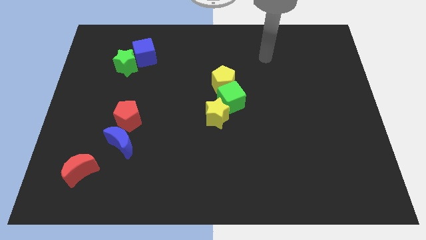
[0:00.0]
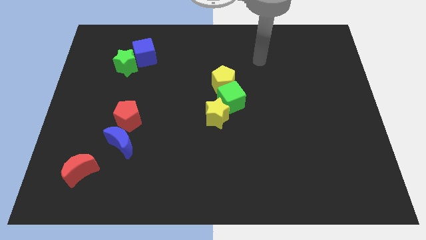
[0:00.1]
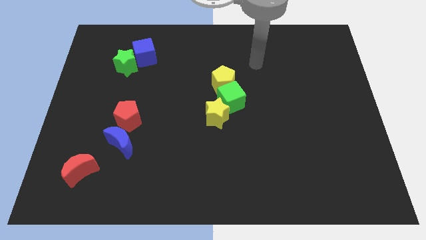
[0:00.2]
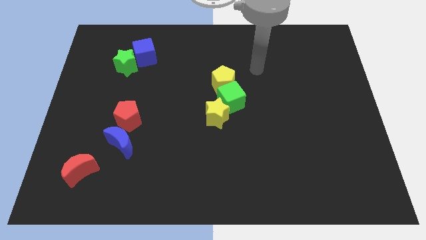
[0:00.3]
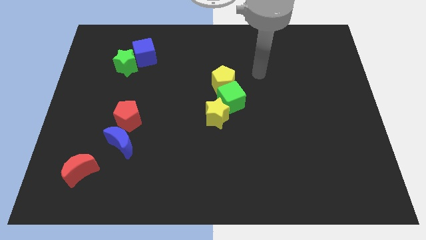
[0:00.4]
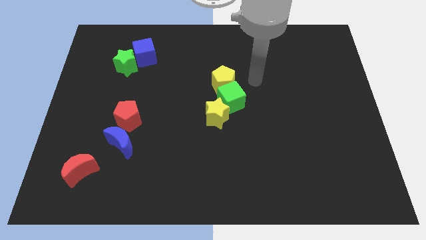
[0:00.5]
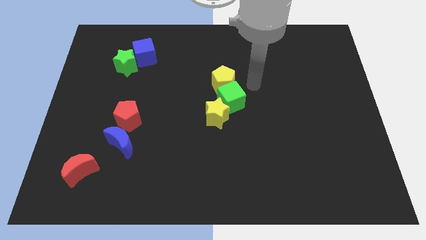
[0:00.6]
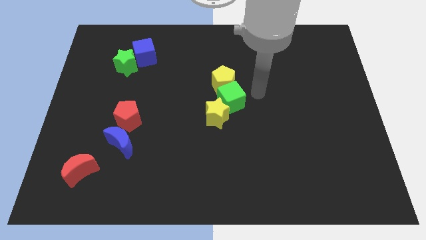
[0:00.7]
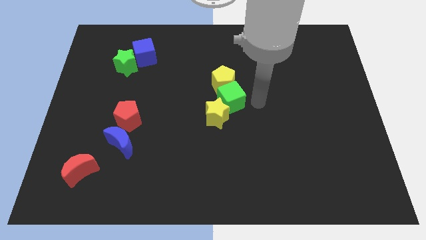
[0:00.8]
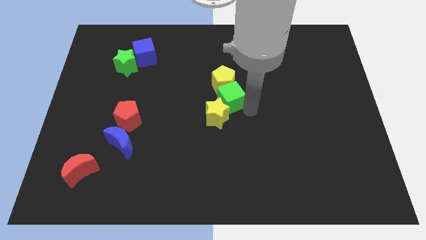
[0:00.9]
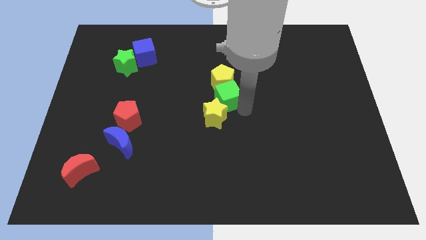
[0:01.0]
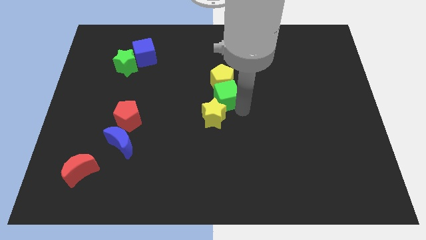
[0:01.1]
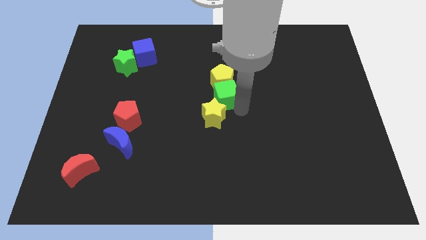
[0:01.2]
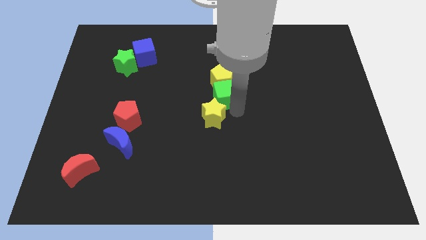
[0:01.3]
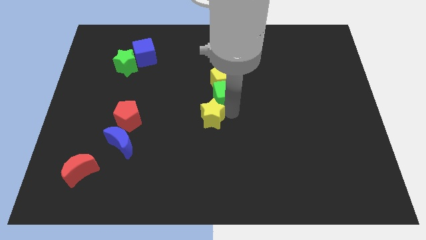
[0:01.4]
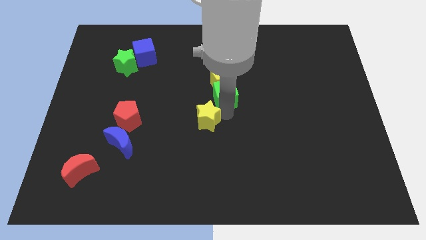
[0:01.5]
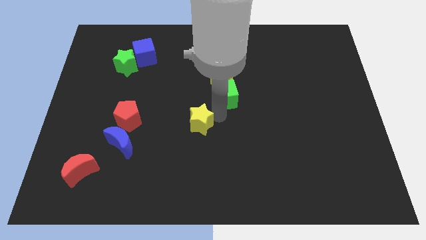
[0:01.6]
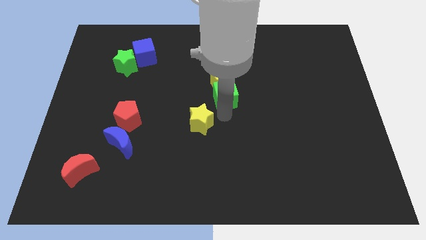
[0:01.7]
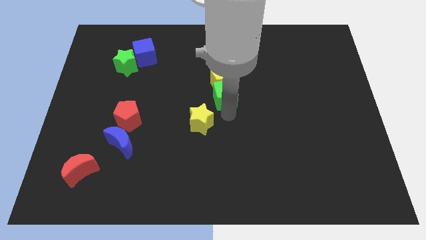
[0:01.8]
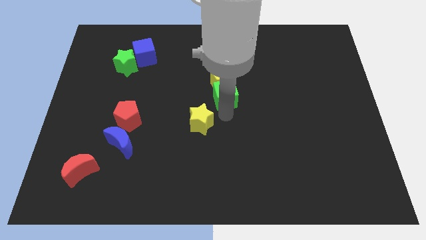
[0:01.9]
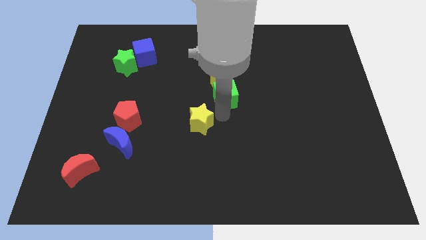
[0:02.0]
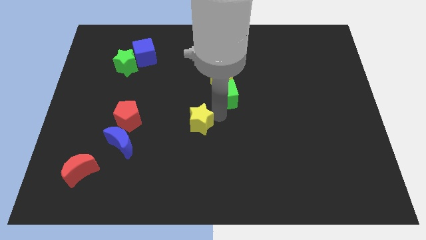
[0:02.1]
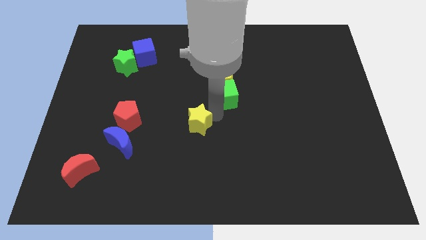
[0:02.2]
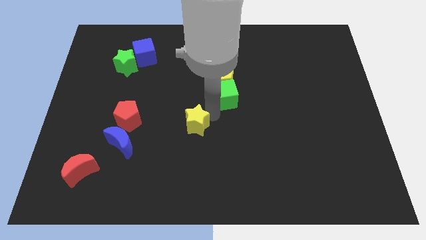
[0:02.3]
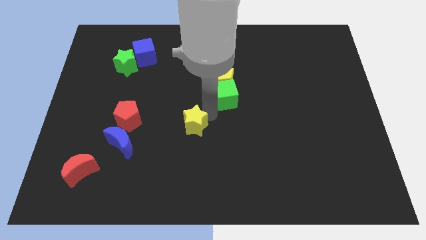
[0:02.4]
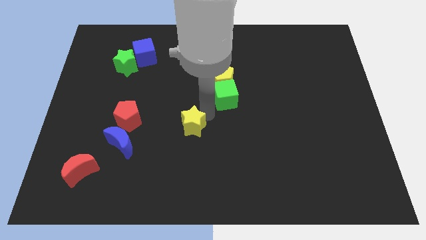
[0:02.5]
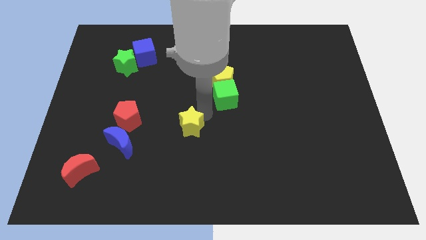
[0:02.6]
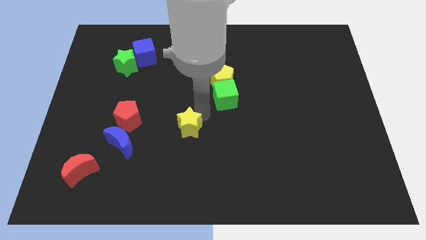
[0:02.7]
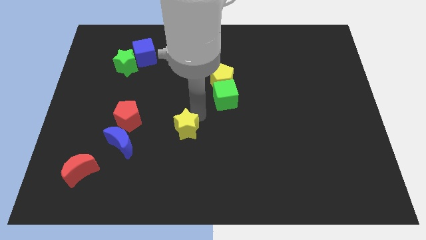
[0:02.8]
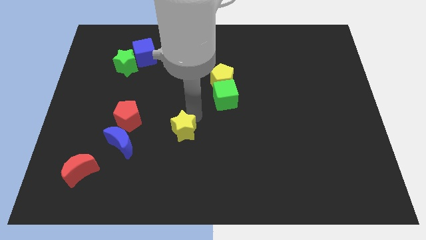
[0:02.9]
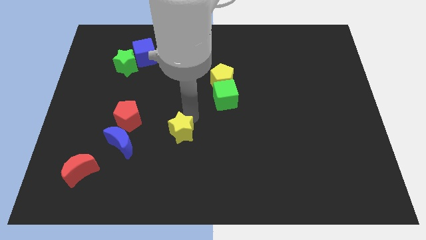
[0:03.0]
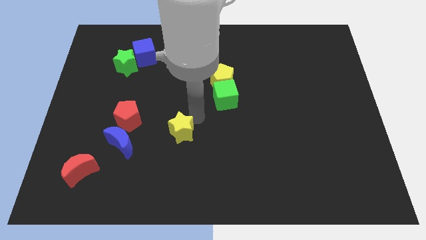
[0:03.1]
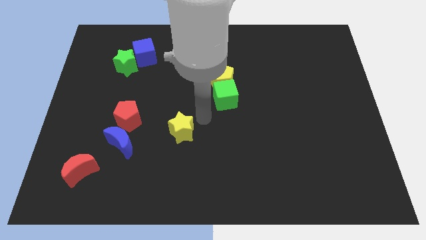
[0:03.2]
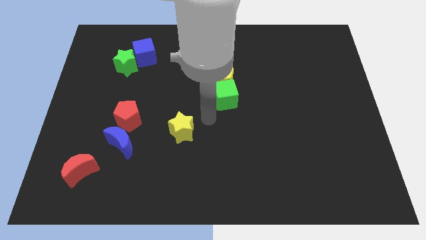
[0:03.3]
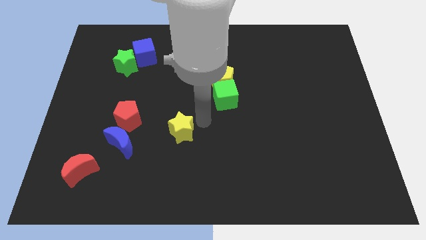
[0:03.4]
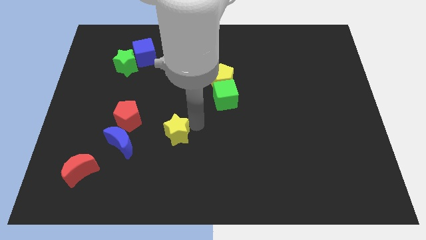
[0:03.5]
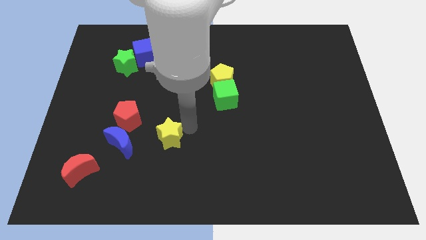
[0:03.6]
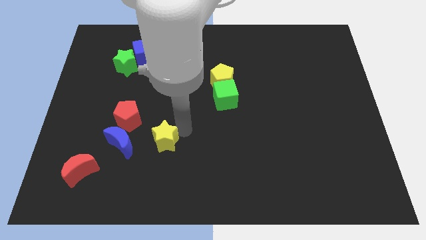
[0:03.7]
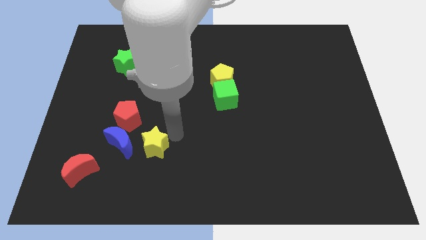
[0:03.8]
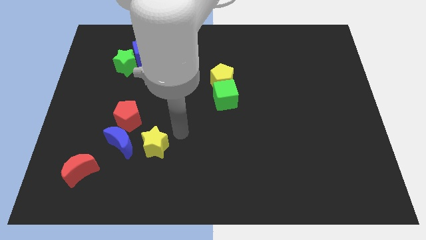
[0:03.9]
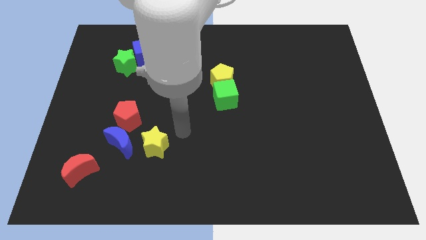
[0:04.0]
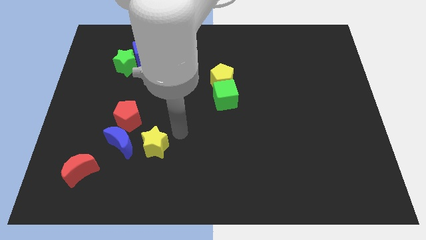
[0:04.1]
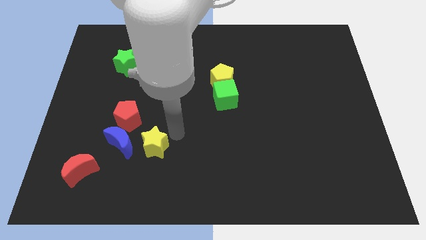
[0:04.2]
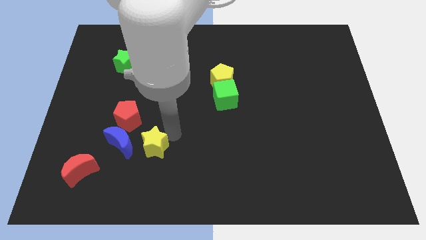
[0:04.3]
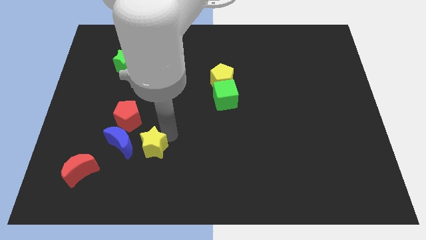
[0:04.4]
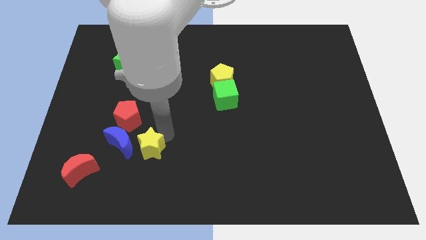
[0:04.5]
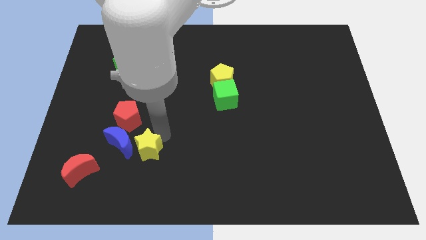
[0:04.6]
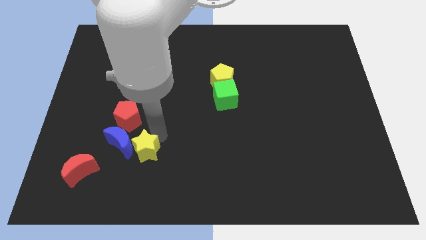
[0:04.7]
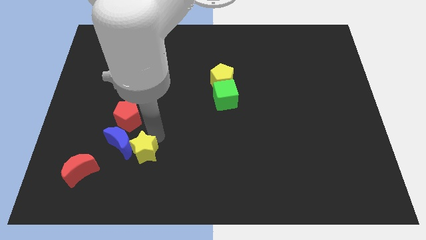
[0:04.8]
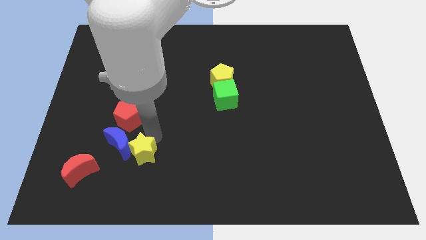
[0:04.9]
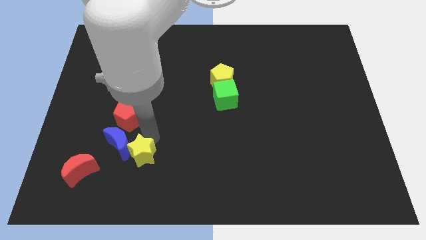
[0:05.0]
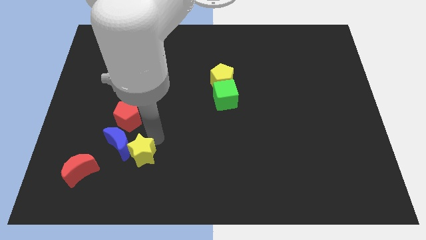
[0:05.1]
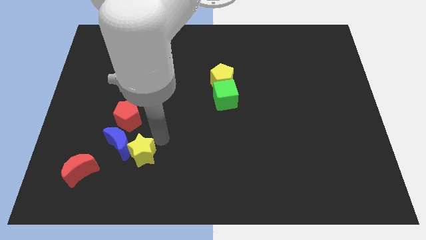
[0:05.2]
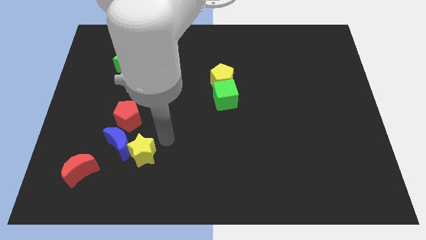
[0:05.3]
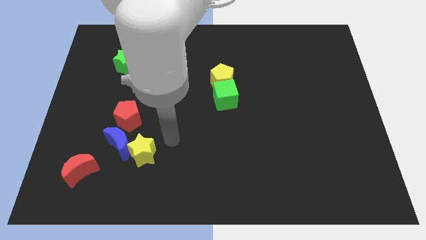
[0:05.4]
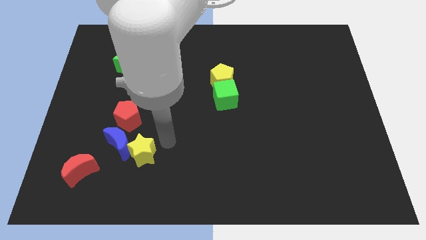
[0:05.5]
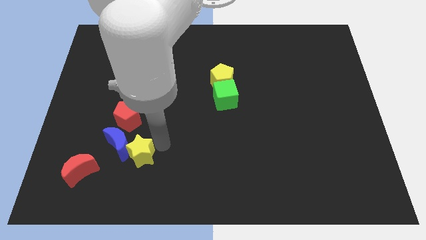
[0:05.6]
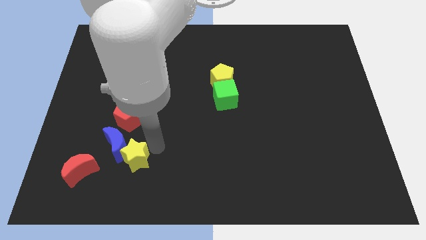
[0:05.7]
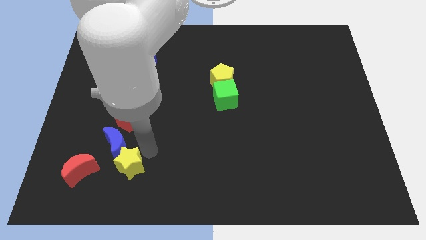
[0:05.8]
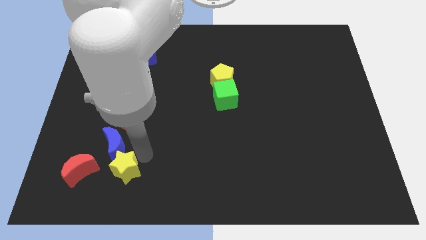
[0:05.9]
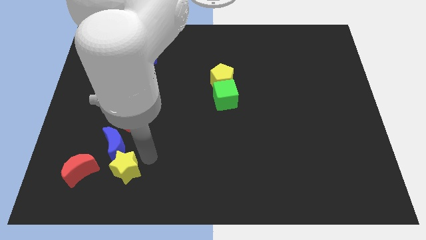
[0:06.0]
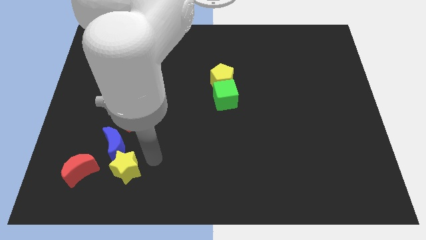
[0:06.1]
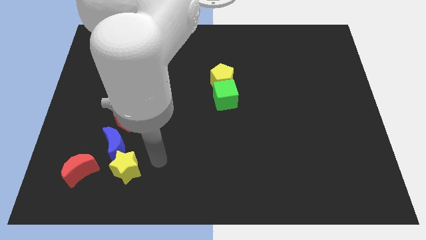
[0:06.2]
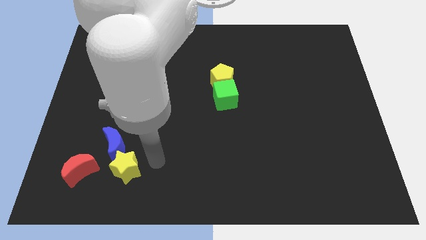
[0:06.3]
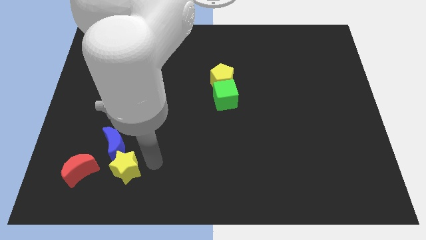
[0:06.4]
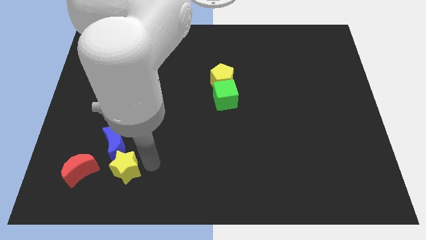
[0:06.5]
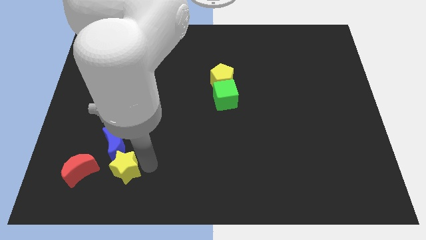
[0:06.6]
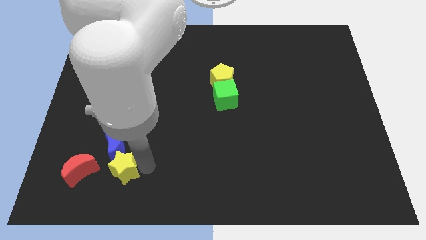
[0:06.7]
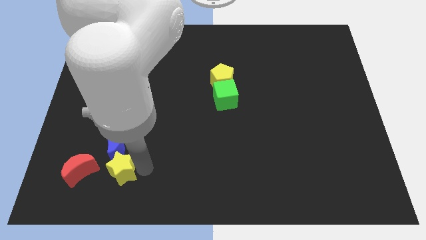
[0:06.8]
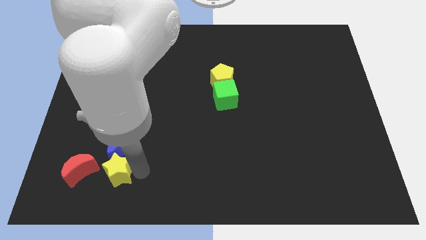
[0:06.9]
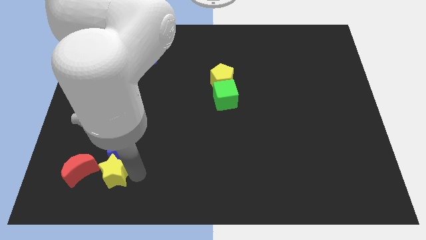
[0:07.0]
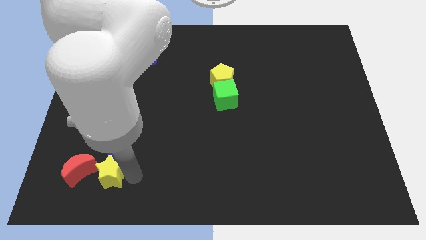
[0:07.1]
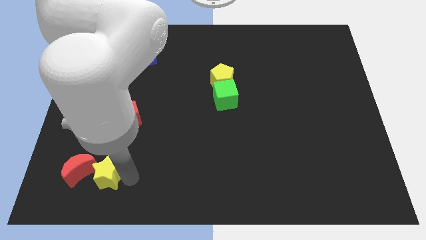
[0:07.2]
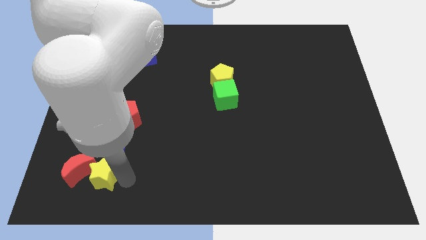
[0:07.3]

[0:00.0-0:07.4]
slide the yellow star next to the red moon
